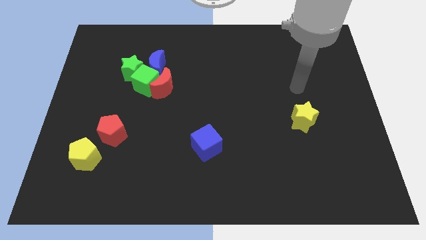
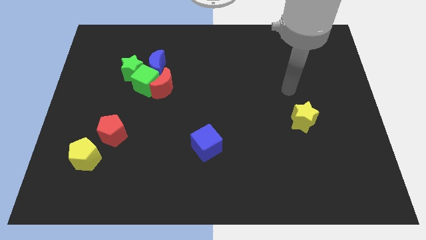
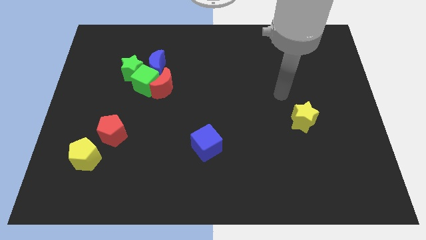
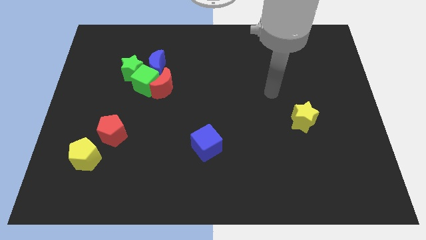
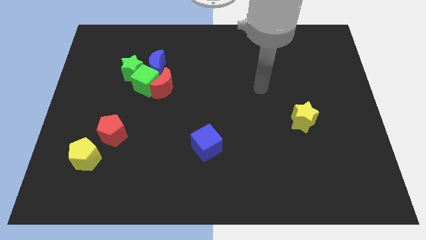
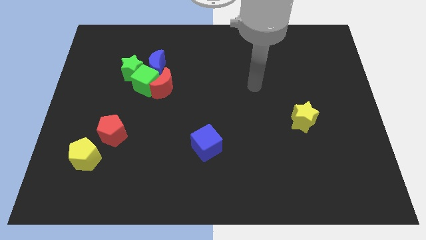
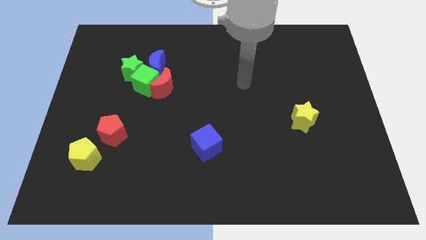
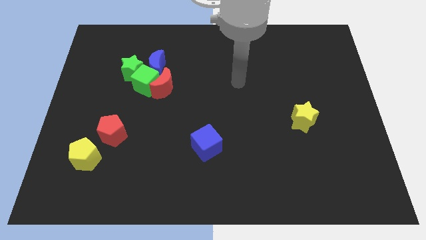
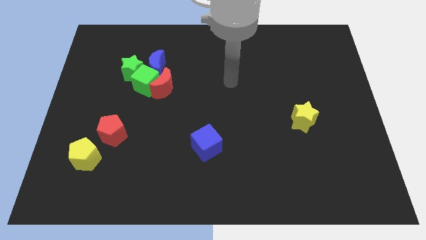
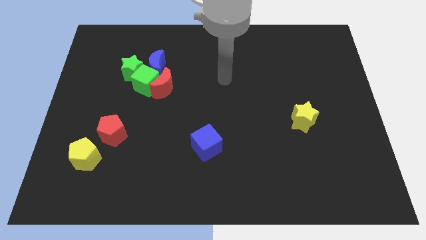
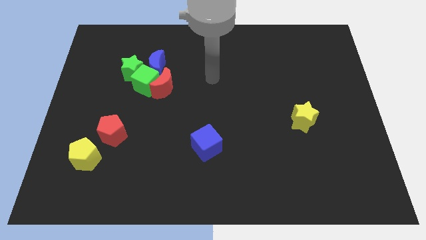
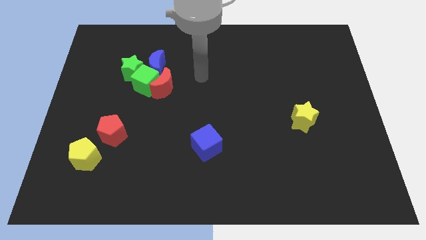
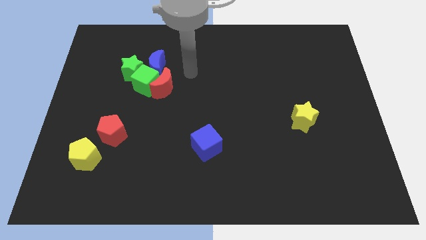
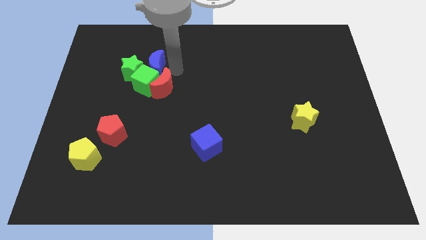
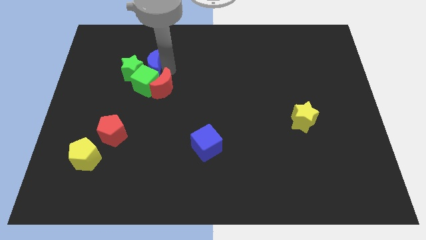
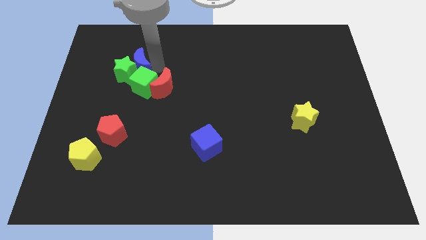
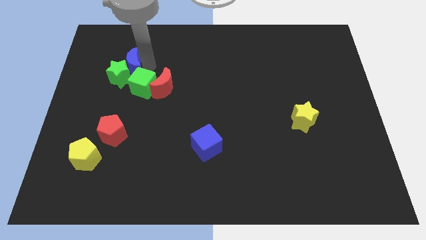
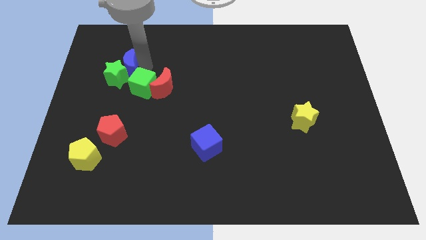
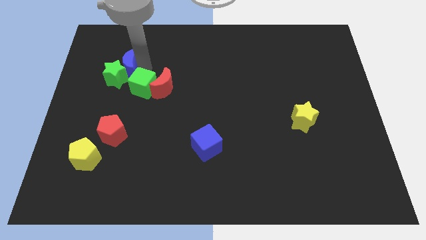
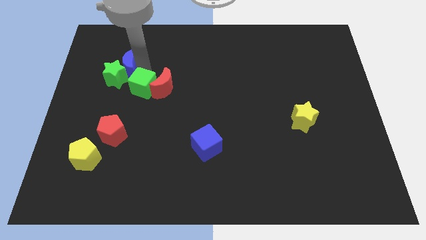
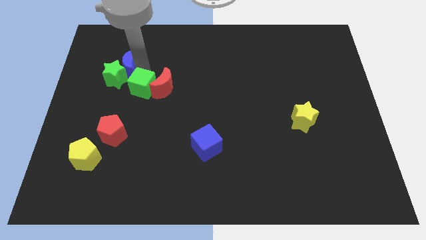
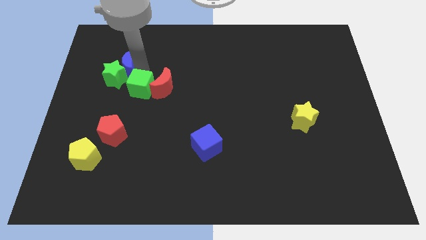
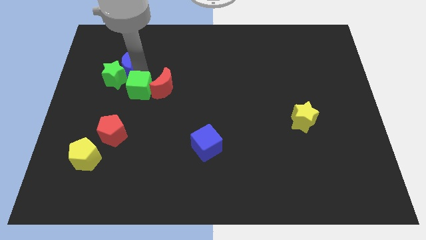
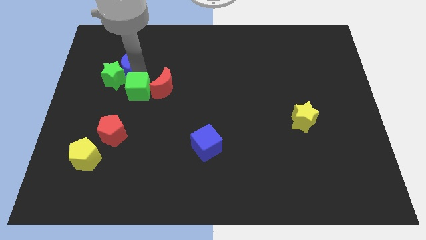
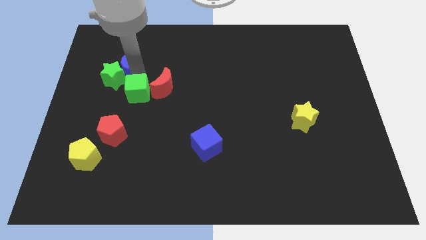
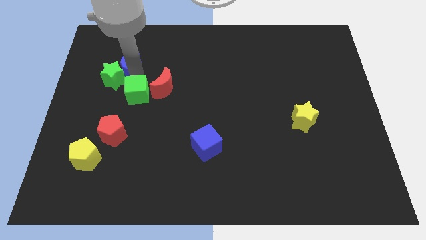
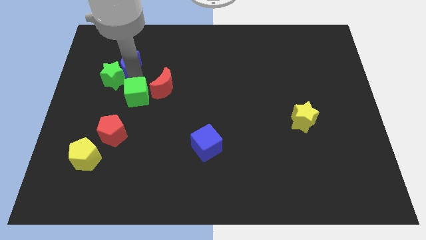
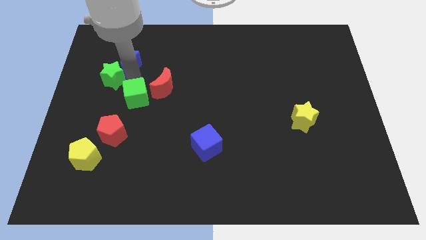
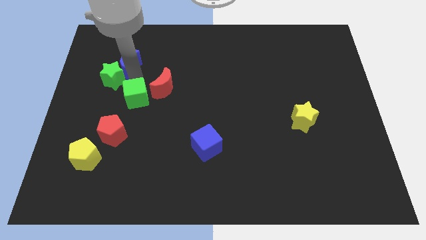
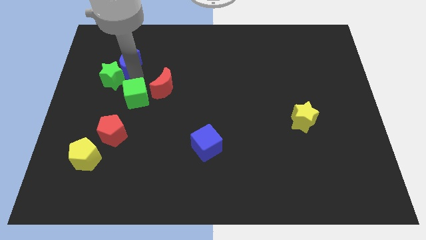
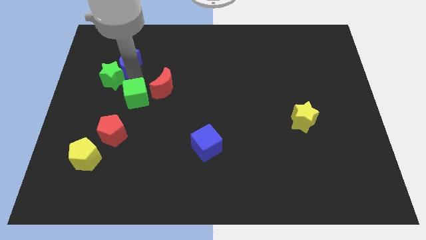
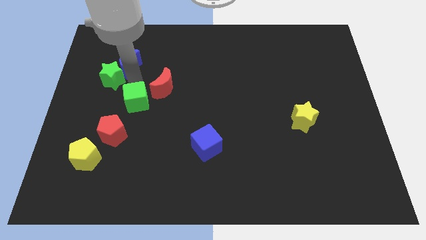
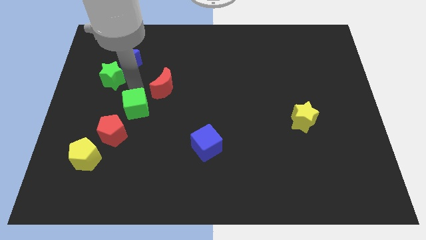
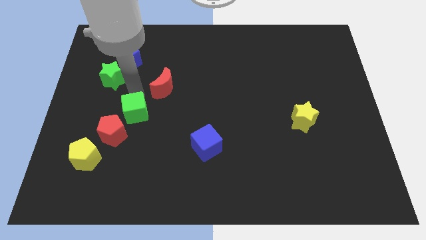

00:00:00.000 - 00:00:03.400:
move the green cube away from the group of blocks

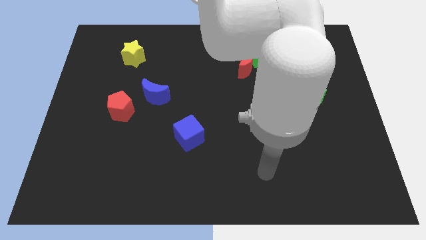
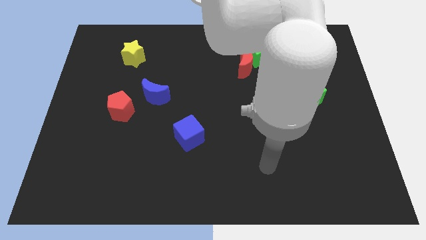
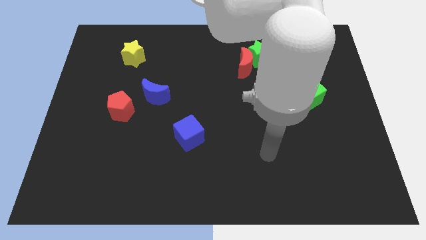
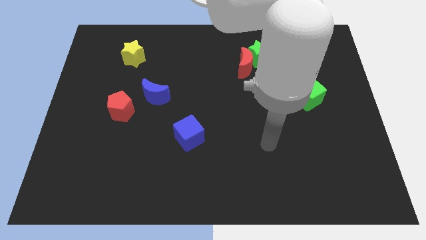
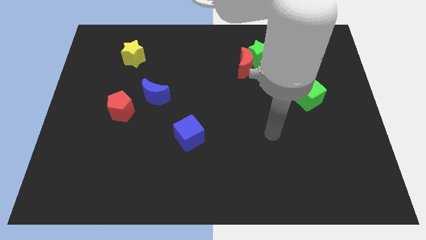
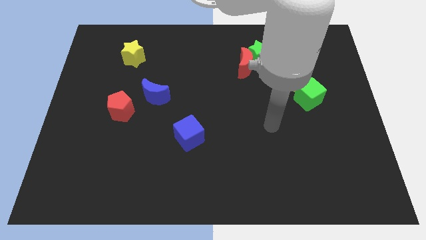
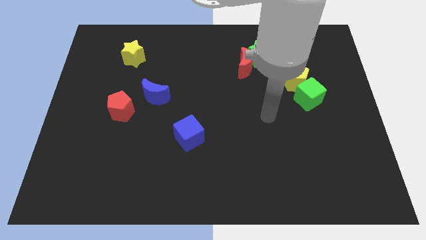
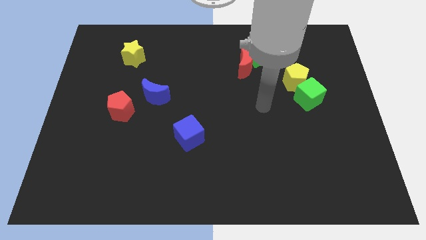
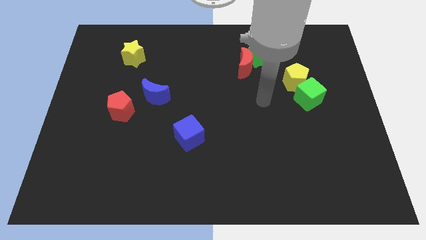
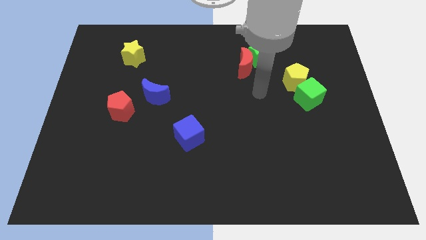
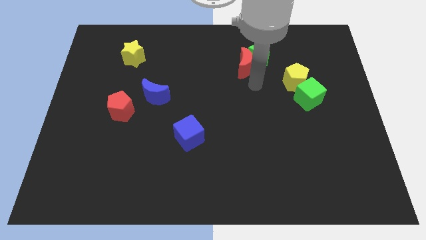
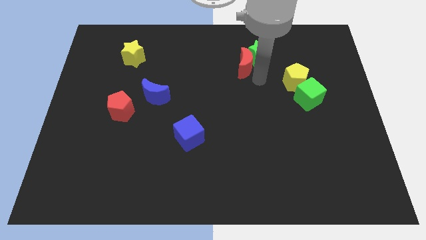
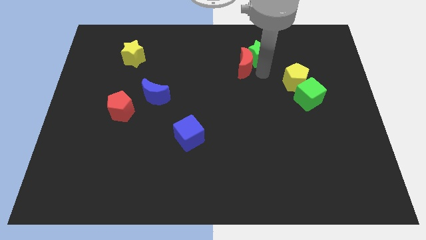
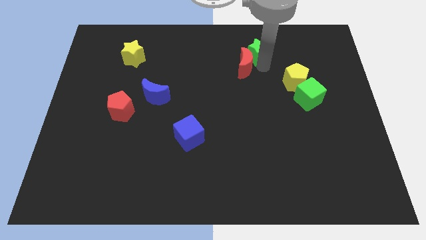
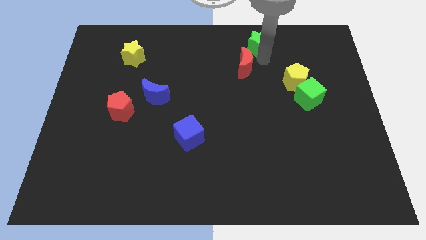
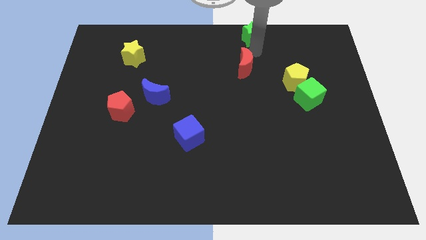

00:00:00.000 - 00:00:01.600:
separate the red moon from the green star

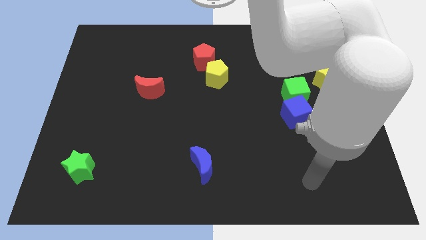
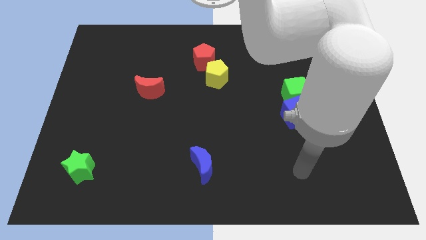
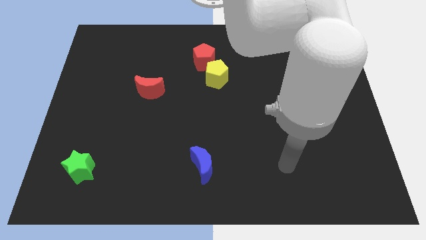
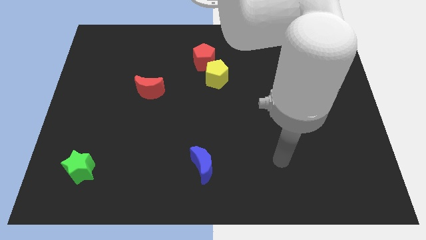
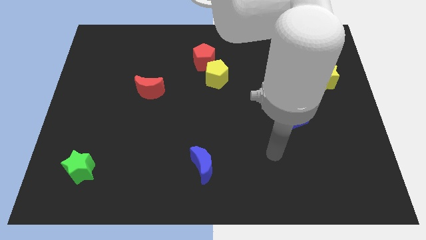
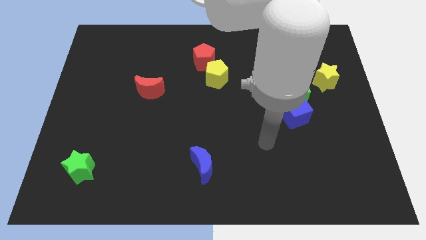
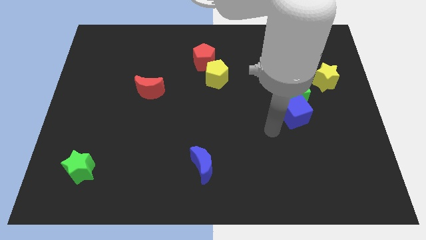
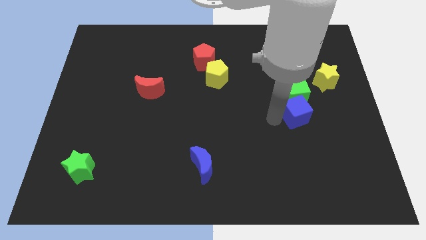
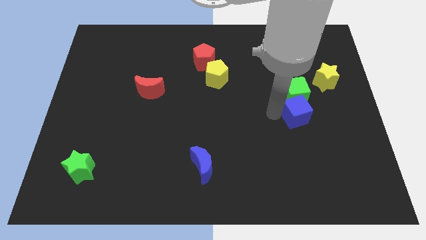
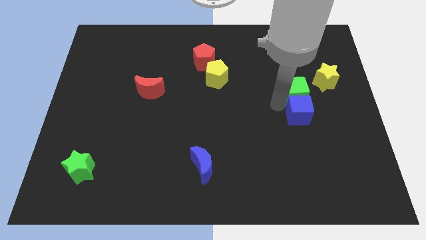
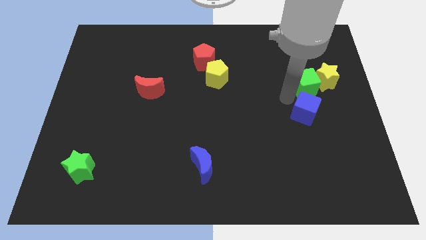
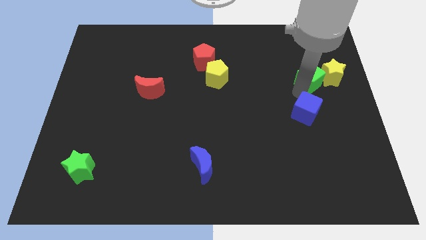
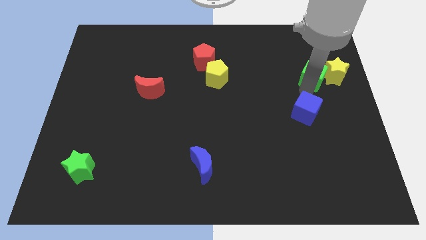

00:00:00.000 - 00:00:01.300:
separate the blue cube from the green cube

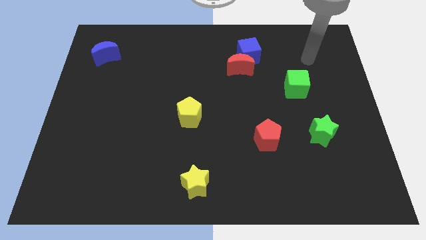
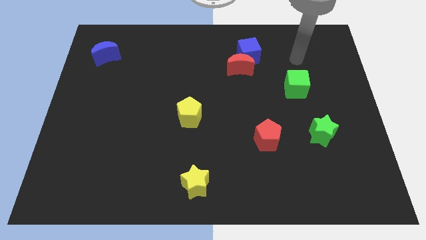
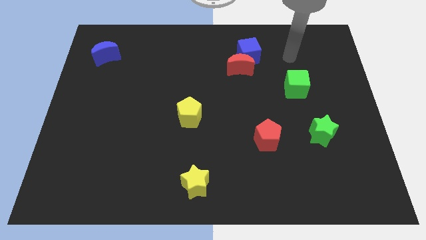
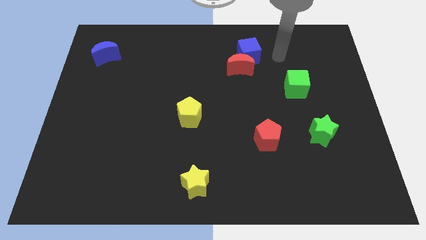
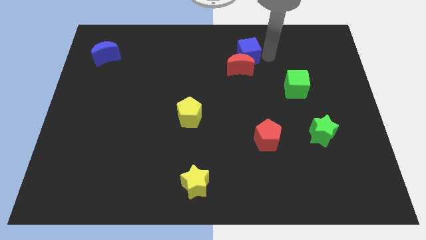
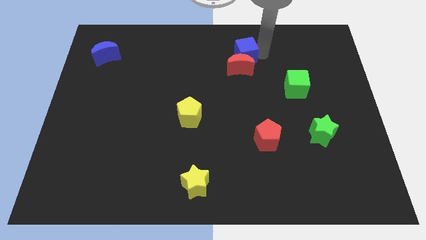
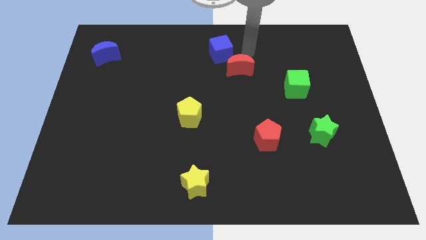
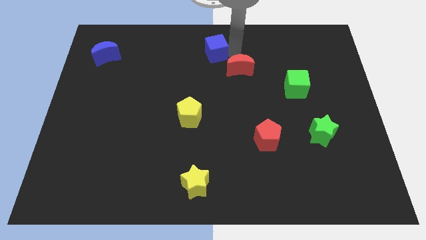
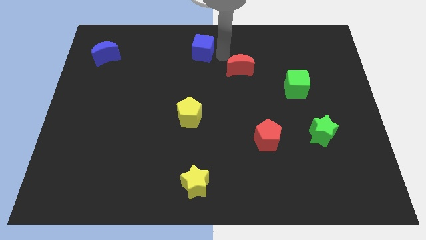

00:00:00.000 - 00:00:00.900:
move the red moon away from the blue cube

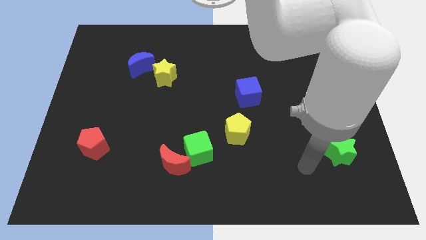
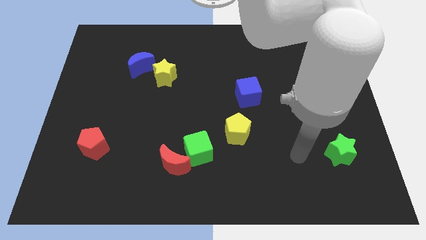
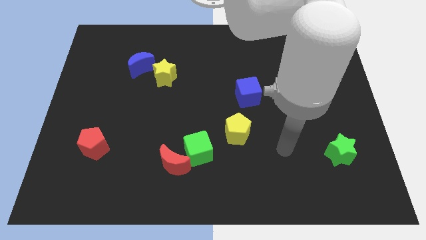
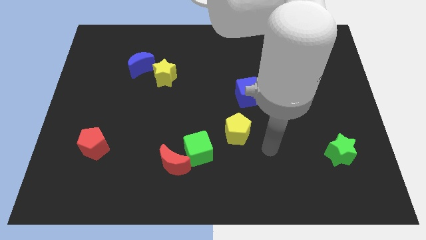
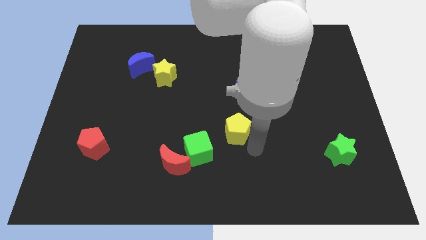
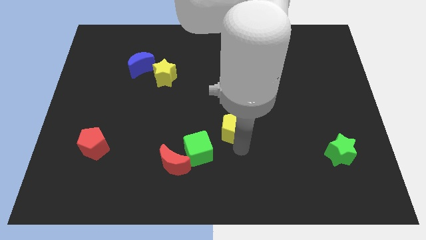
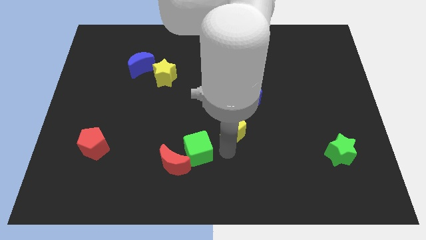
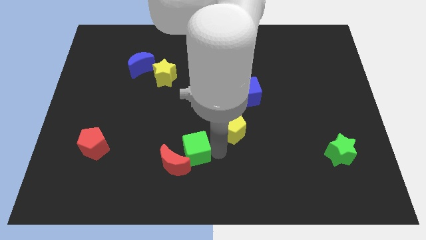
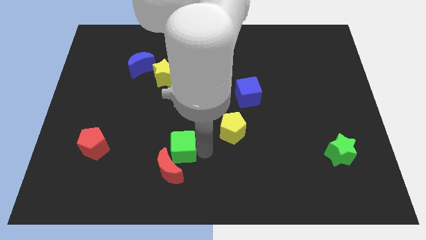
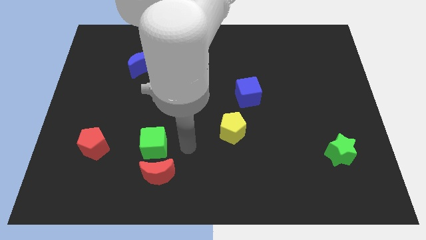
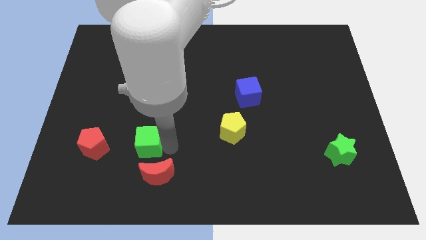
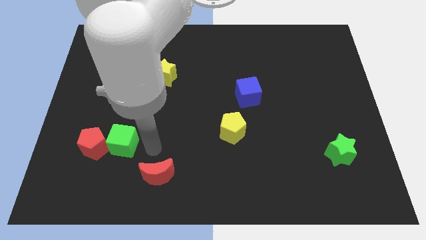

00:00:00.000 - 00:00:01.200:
pull the red moon apart from the green cube

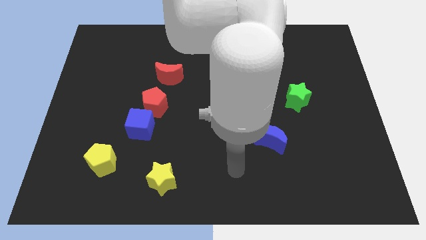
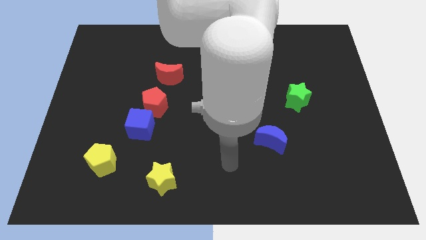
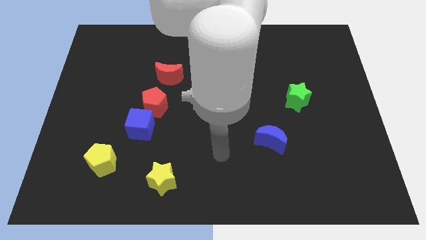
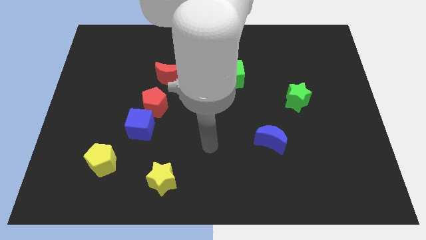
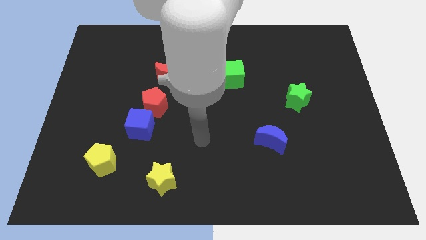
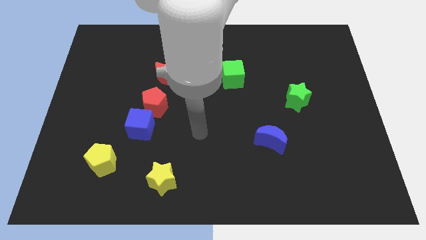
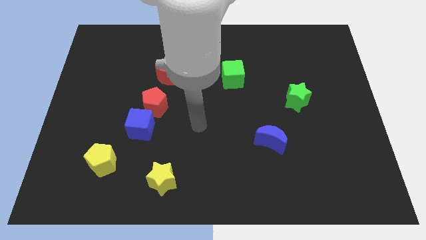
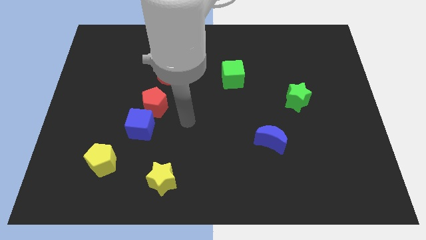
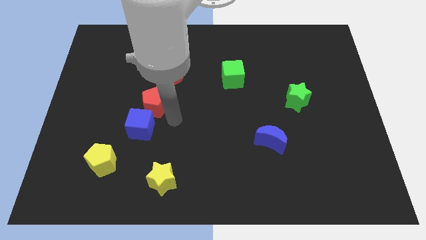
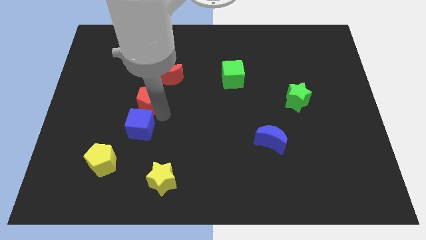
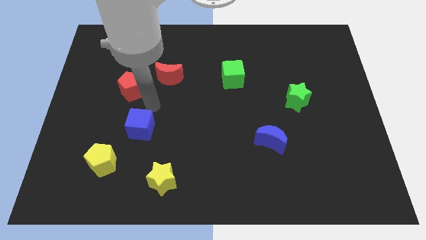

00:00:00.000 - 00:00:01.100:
separate the blue cube from the red pentagon
